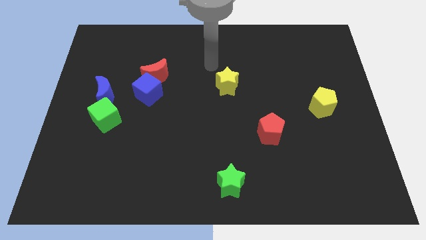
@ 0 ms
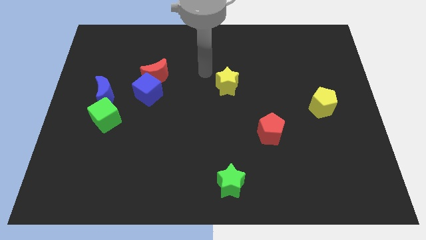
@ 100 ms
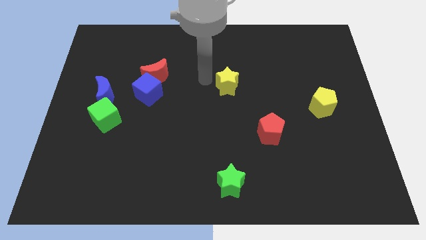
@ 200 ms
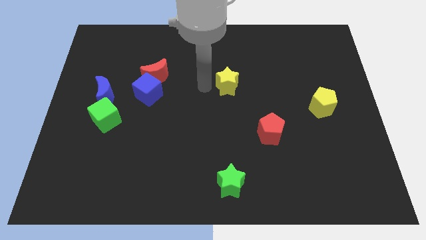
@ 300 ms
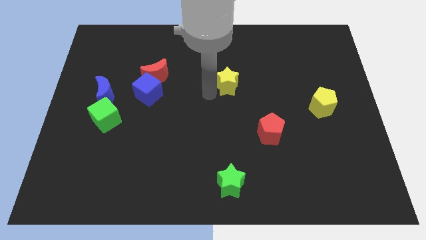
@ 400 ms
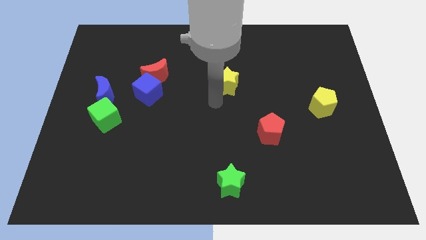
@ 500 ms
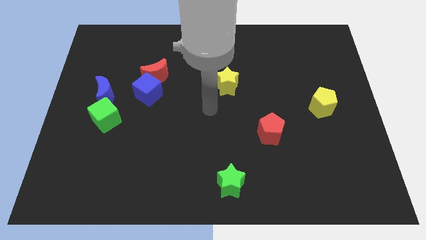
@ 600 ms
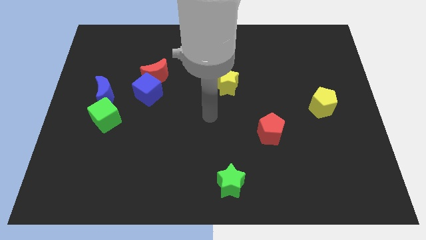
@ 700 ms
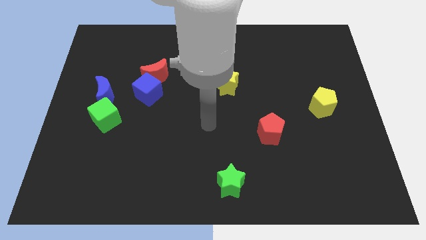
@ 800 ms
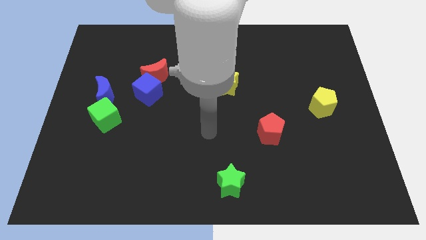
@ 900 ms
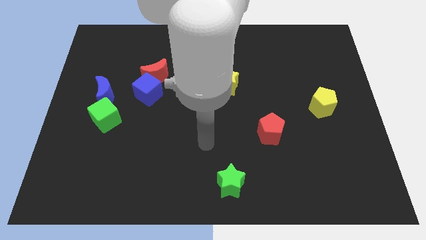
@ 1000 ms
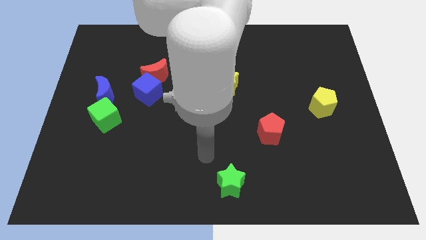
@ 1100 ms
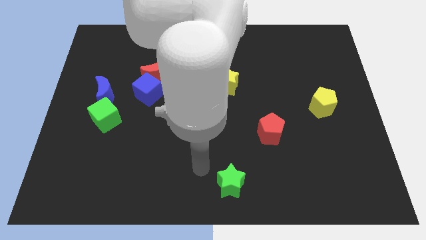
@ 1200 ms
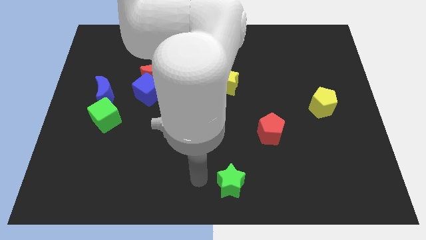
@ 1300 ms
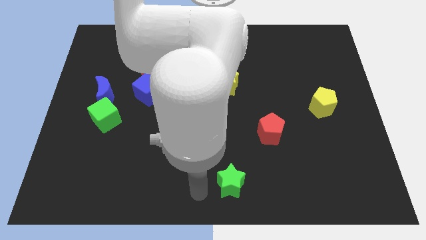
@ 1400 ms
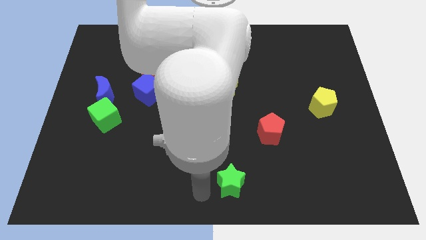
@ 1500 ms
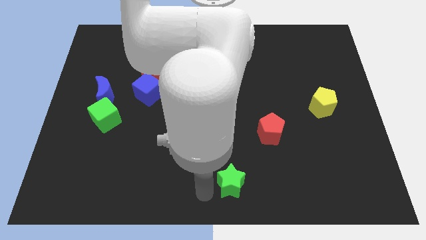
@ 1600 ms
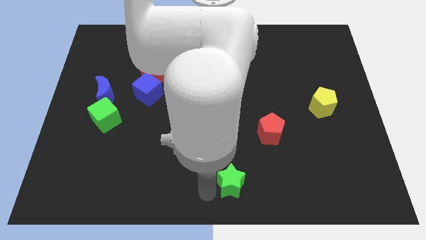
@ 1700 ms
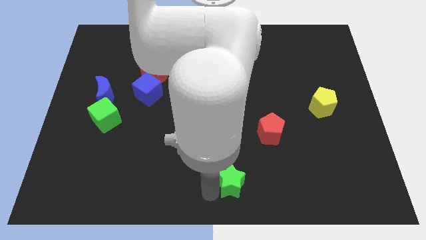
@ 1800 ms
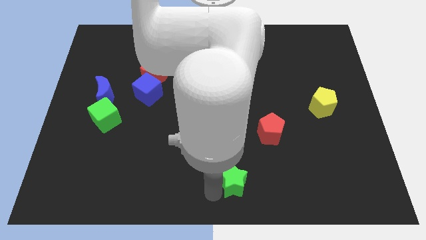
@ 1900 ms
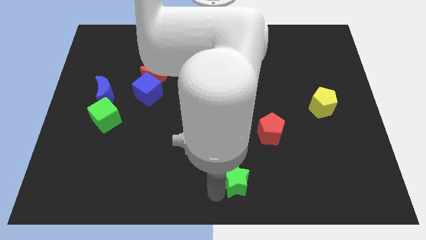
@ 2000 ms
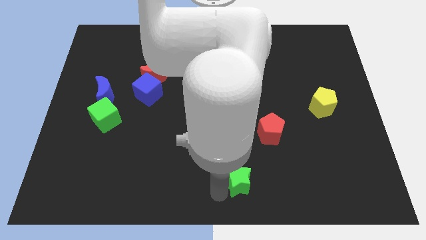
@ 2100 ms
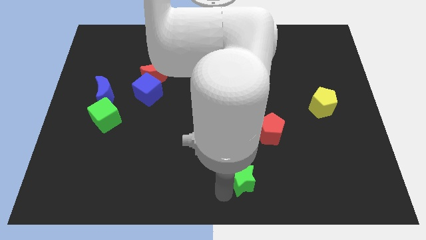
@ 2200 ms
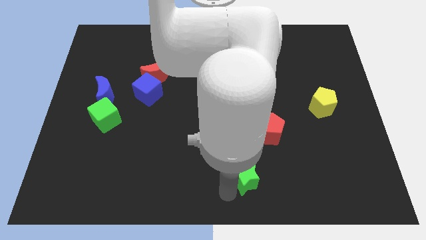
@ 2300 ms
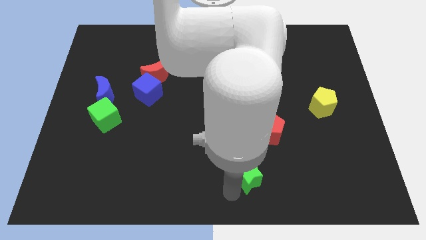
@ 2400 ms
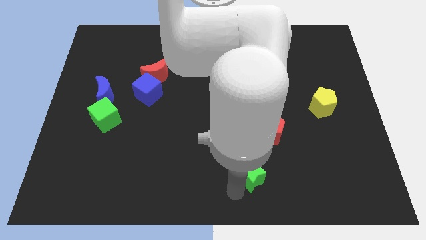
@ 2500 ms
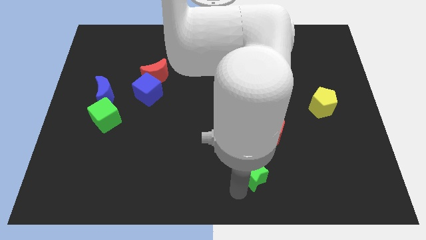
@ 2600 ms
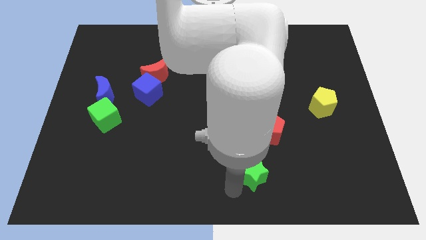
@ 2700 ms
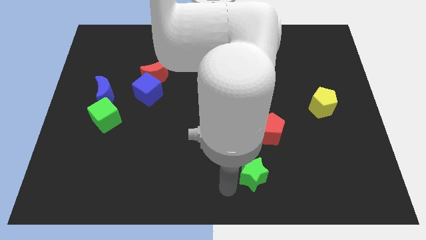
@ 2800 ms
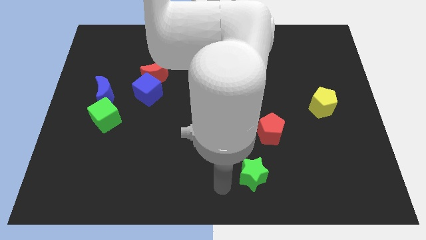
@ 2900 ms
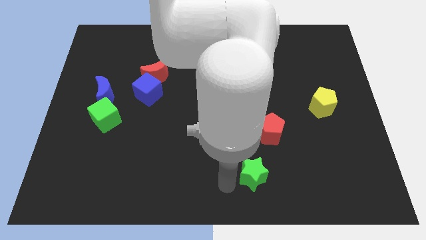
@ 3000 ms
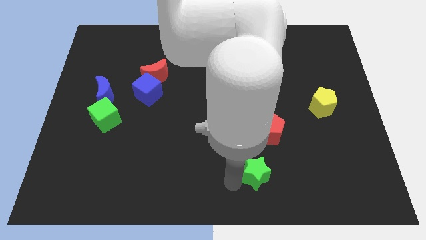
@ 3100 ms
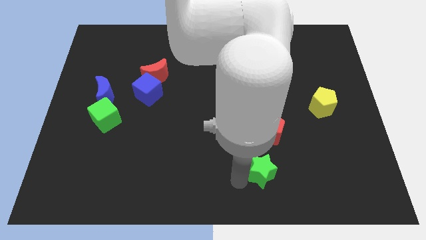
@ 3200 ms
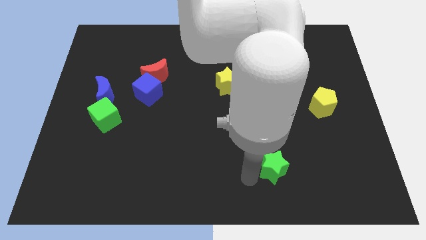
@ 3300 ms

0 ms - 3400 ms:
slide the green star up and then to the right somewhat

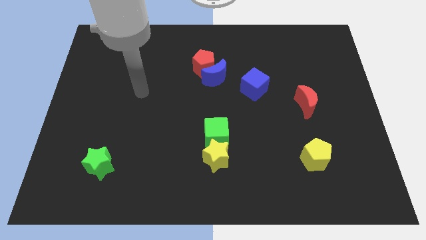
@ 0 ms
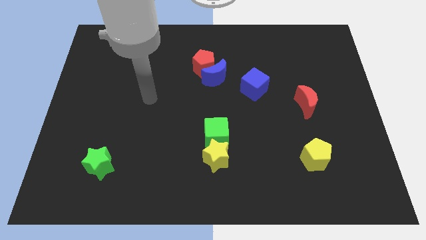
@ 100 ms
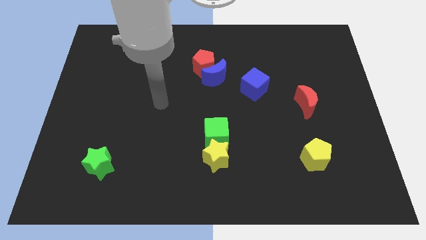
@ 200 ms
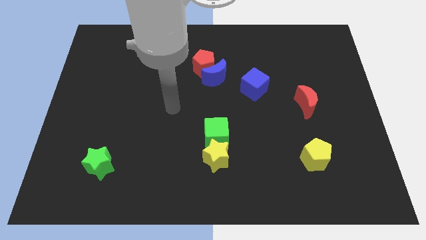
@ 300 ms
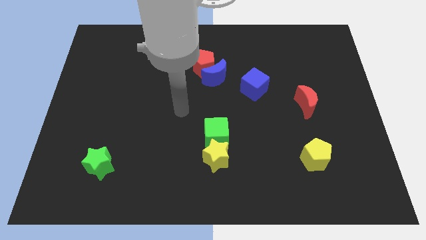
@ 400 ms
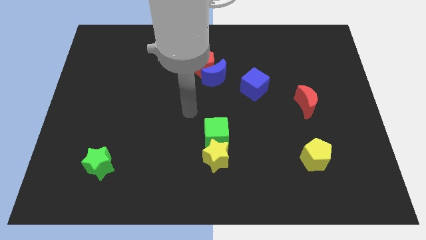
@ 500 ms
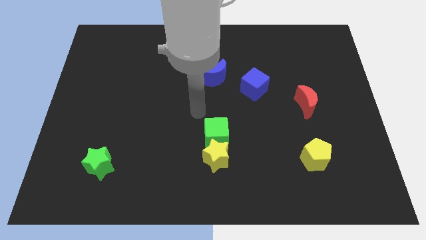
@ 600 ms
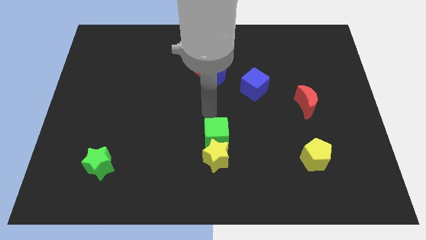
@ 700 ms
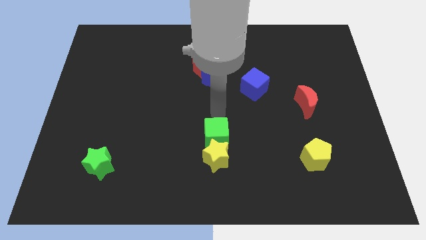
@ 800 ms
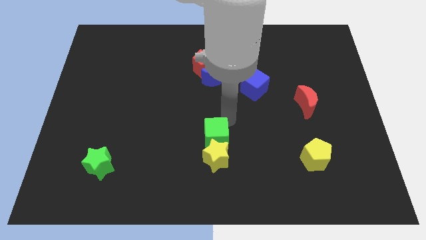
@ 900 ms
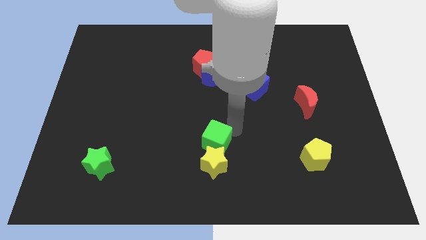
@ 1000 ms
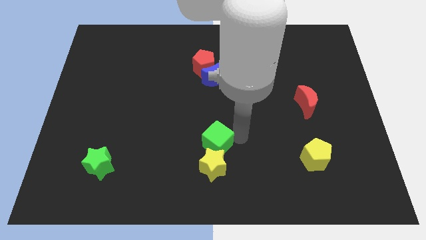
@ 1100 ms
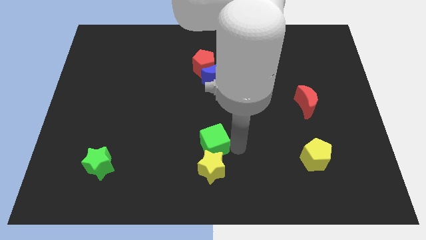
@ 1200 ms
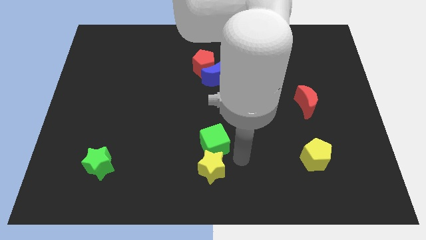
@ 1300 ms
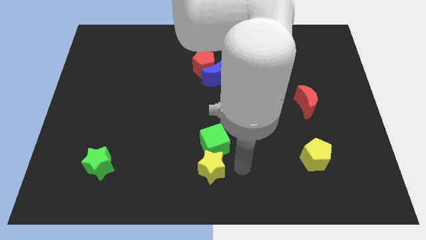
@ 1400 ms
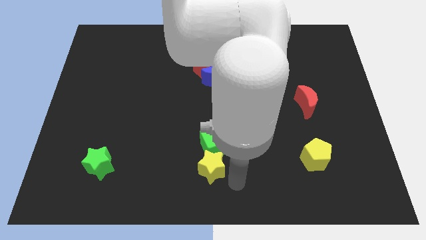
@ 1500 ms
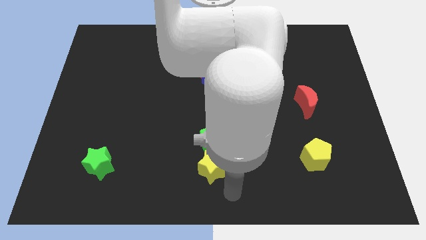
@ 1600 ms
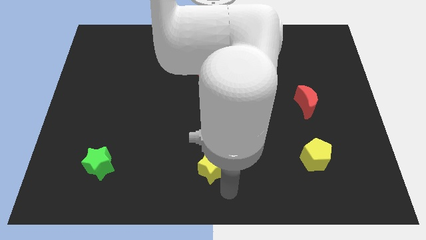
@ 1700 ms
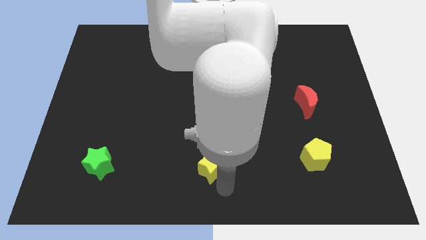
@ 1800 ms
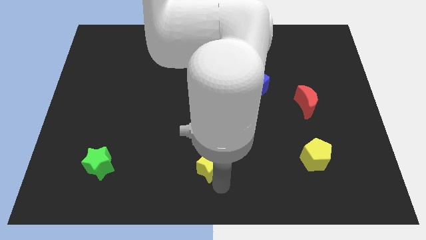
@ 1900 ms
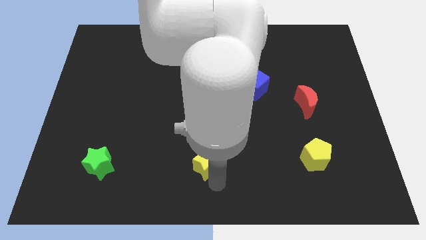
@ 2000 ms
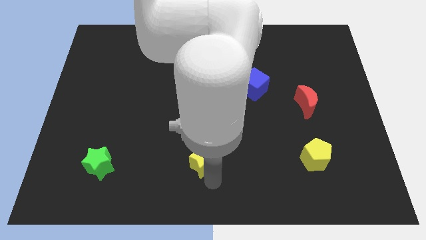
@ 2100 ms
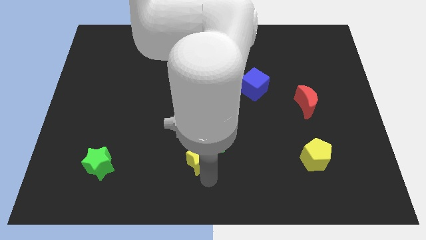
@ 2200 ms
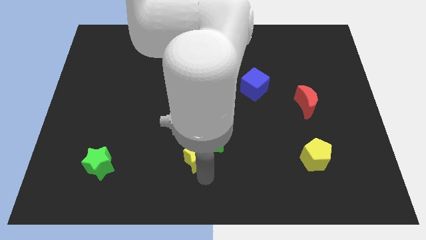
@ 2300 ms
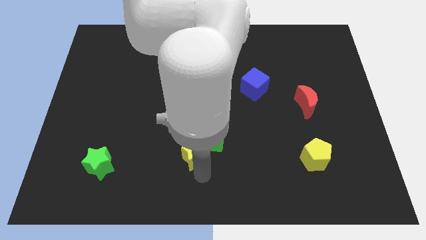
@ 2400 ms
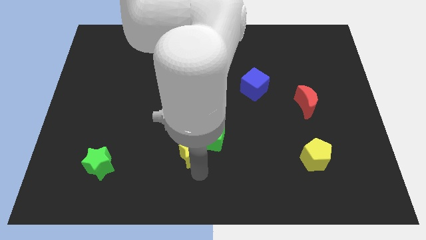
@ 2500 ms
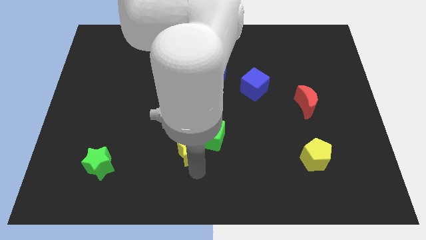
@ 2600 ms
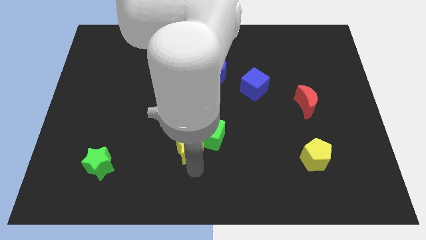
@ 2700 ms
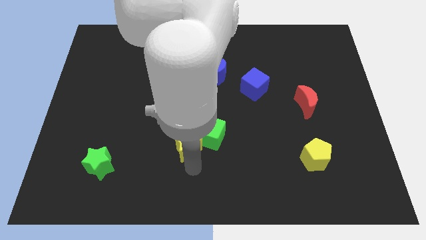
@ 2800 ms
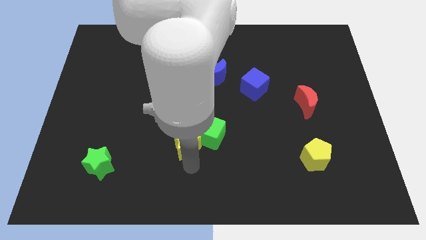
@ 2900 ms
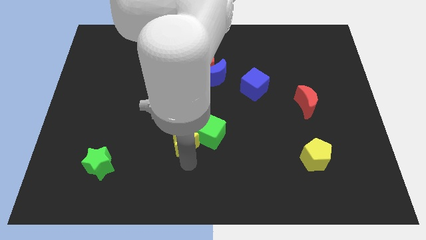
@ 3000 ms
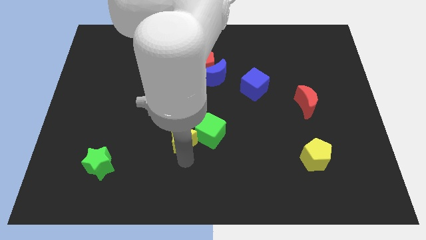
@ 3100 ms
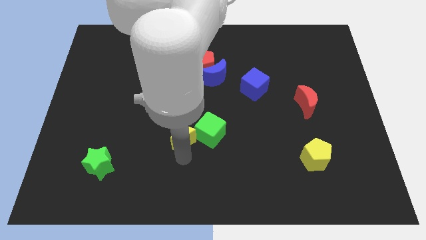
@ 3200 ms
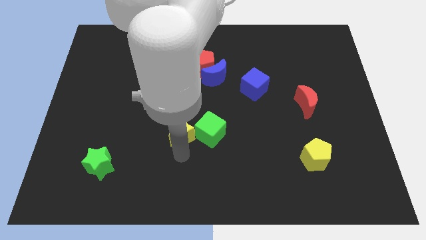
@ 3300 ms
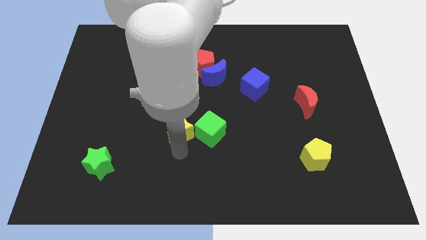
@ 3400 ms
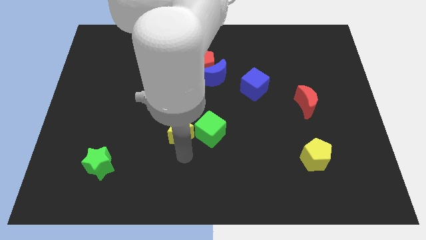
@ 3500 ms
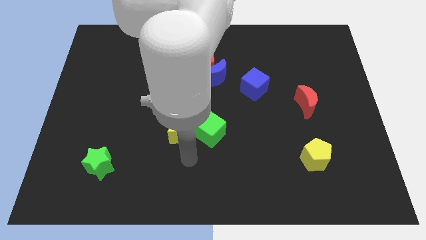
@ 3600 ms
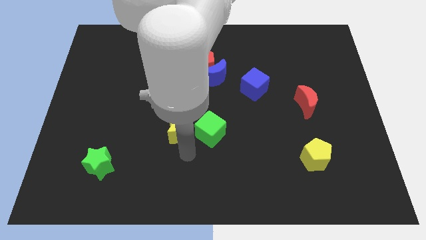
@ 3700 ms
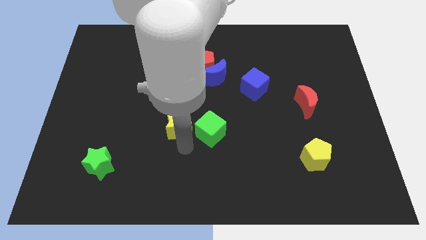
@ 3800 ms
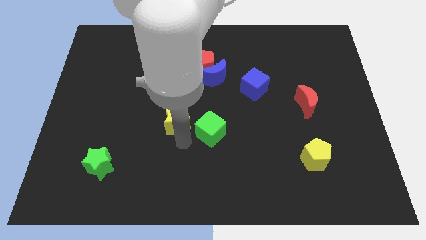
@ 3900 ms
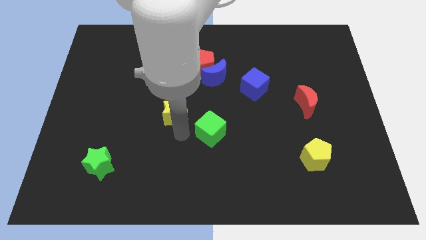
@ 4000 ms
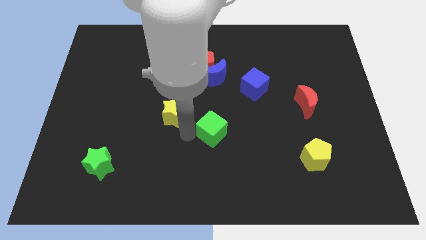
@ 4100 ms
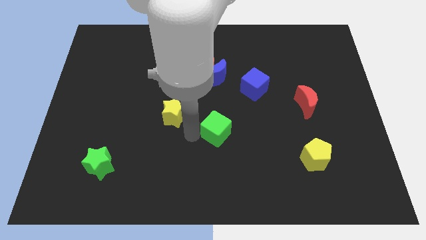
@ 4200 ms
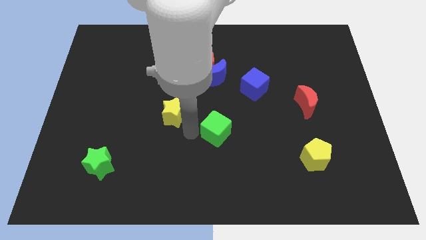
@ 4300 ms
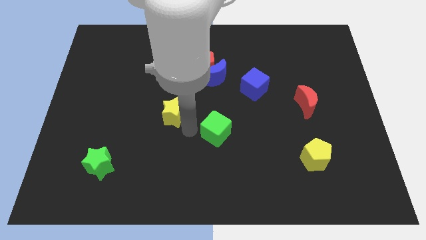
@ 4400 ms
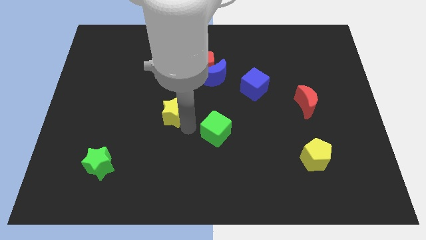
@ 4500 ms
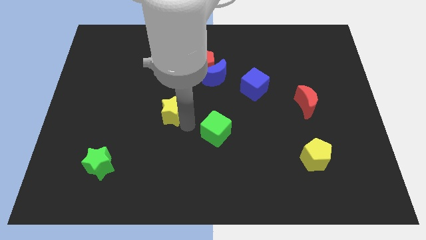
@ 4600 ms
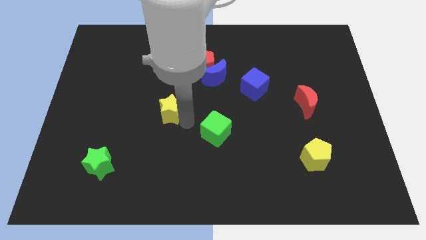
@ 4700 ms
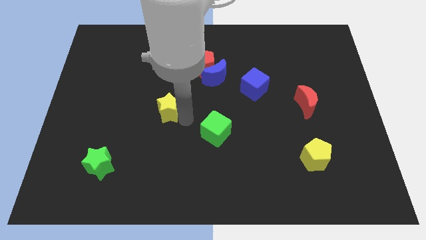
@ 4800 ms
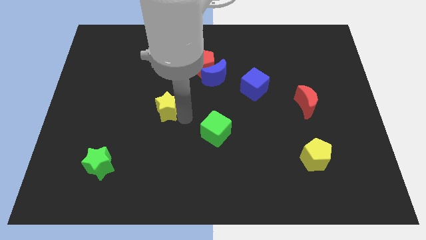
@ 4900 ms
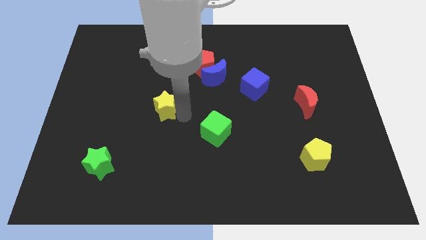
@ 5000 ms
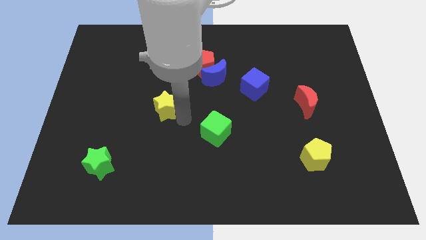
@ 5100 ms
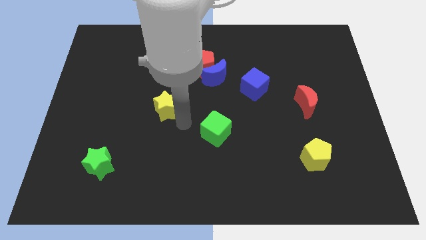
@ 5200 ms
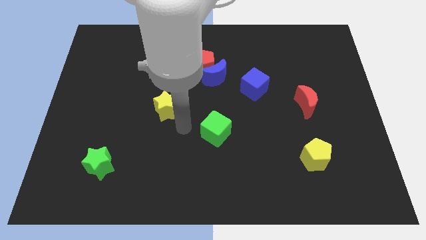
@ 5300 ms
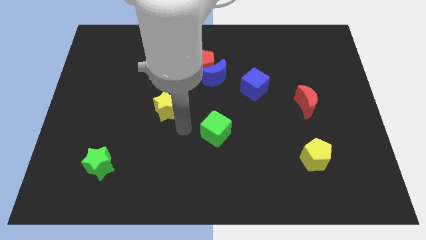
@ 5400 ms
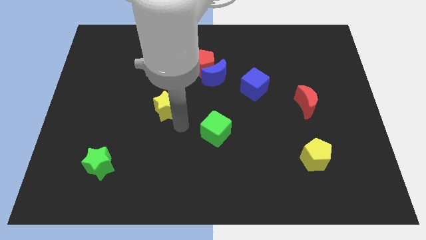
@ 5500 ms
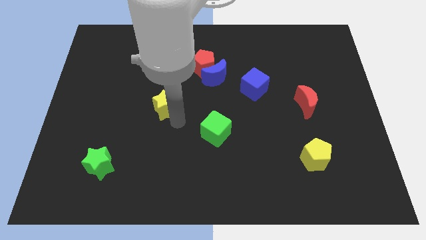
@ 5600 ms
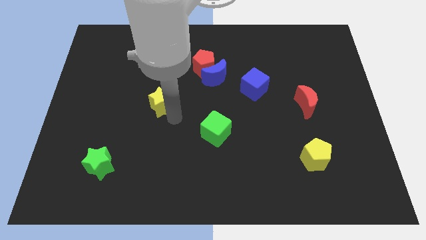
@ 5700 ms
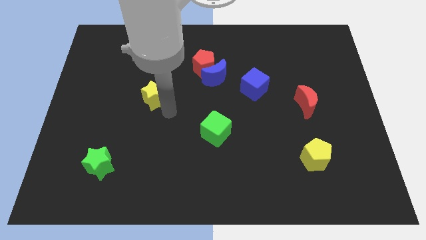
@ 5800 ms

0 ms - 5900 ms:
slide the yellow star upwards and left
